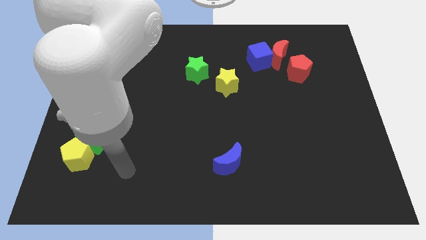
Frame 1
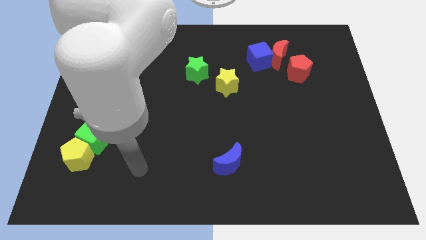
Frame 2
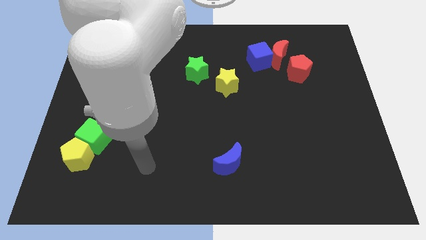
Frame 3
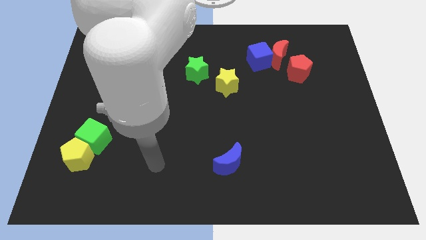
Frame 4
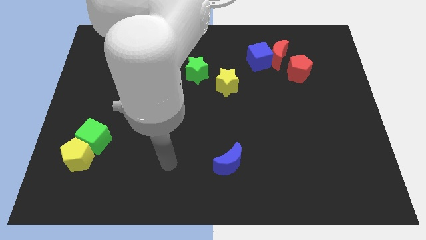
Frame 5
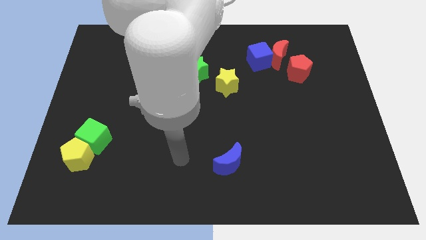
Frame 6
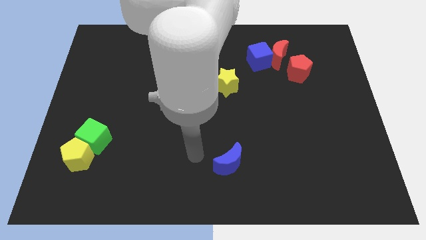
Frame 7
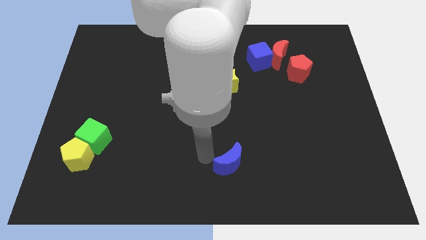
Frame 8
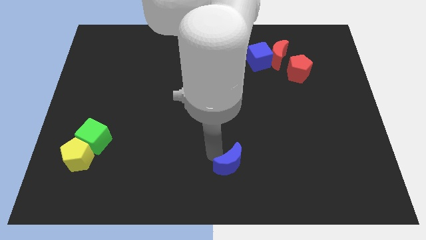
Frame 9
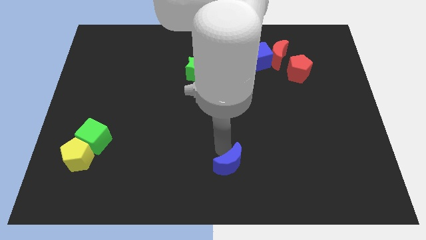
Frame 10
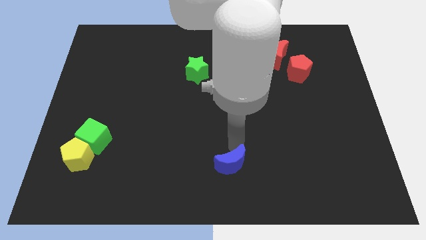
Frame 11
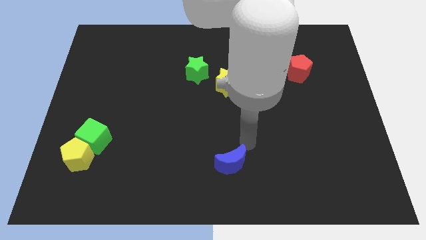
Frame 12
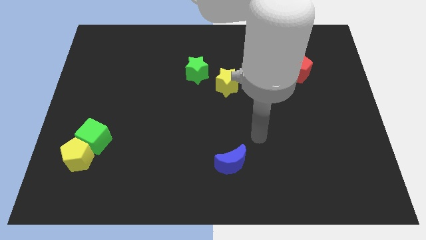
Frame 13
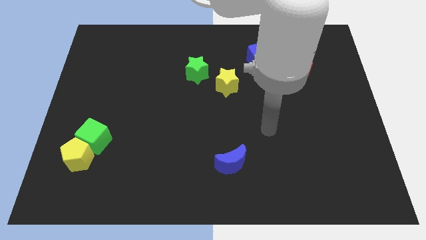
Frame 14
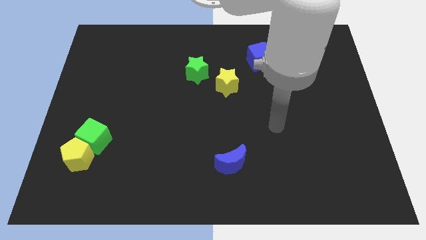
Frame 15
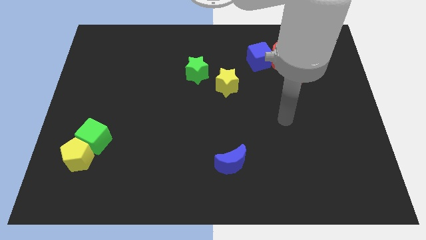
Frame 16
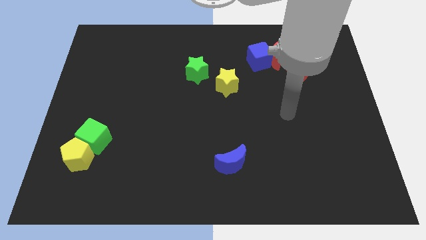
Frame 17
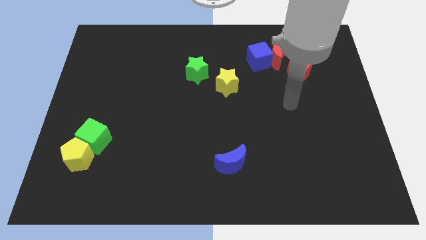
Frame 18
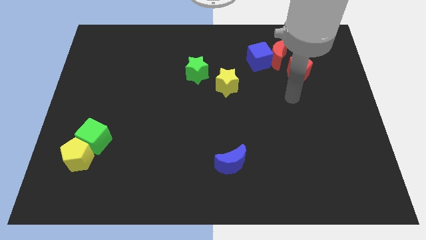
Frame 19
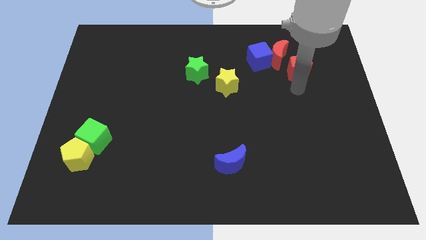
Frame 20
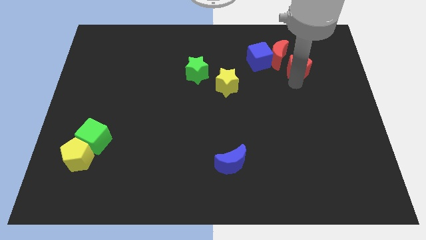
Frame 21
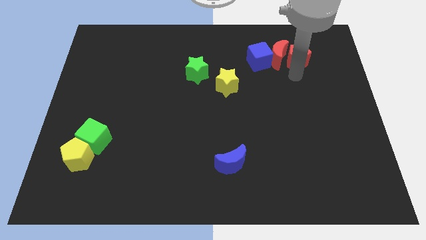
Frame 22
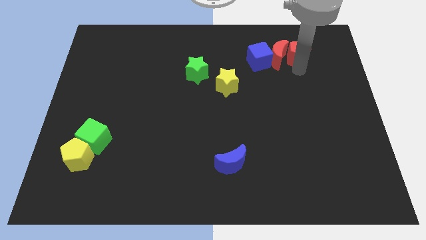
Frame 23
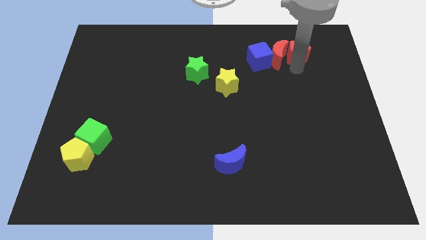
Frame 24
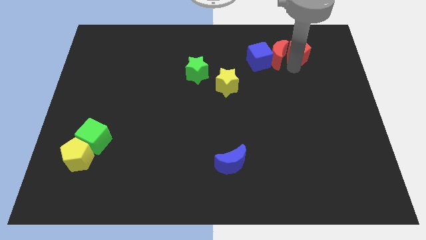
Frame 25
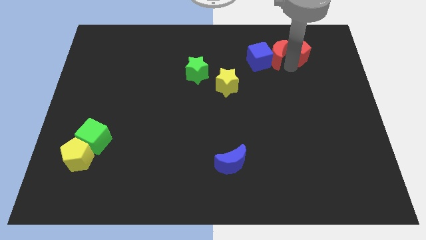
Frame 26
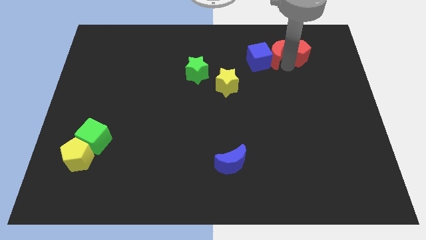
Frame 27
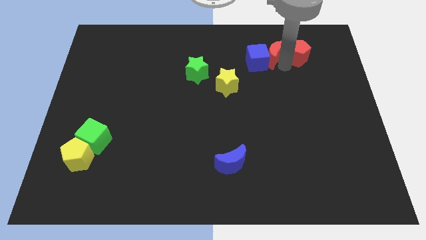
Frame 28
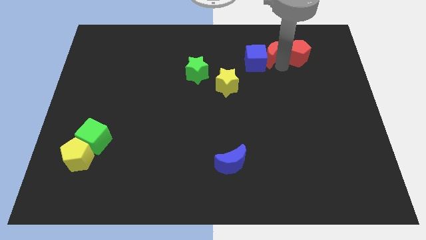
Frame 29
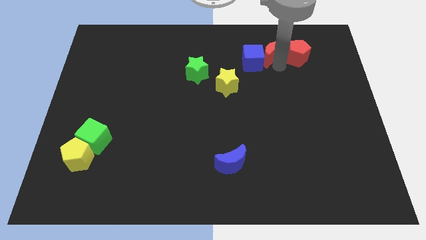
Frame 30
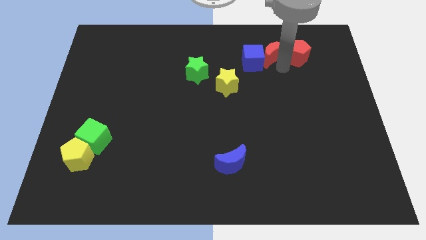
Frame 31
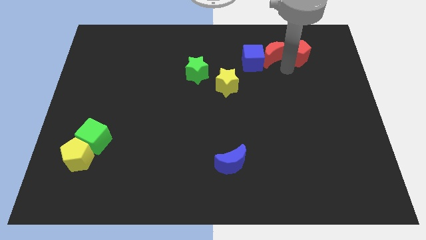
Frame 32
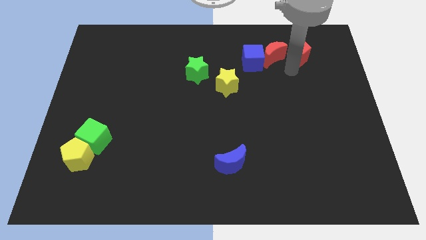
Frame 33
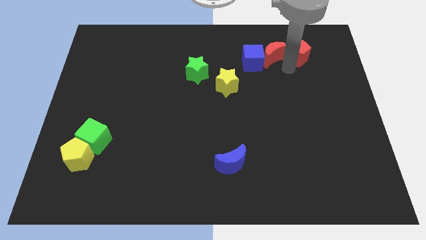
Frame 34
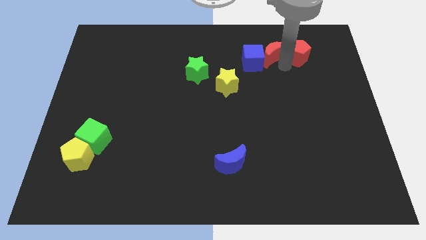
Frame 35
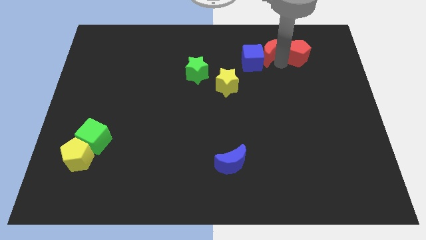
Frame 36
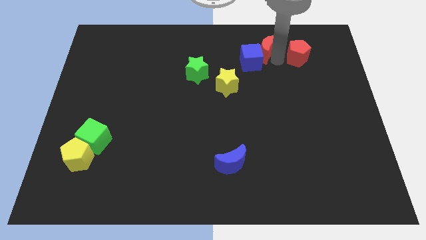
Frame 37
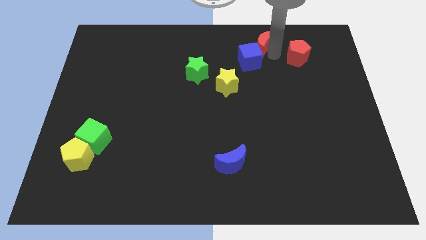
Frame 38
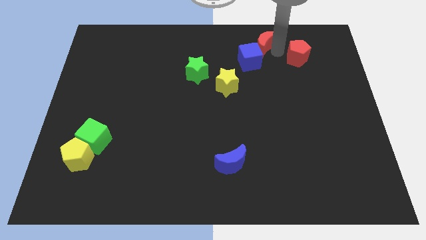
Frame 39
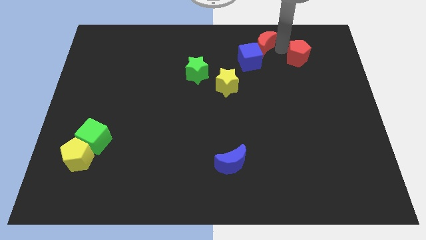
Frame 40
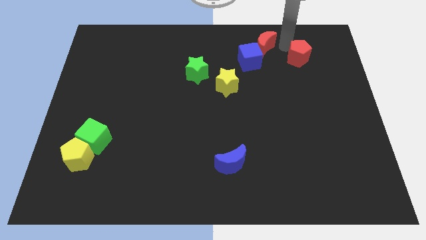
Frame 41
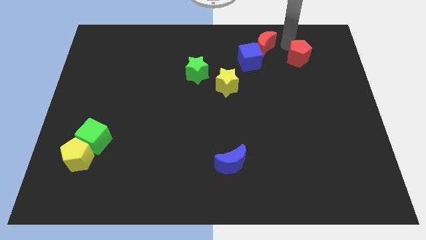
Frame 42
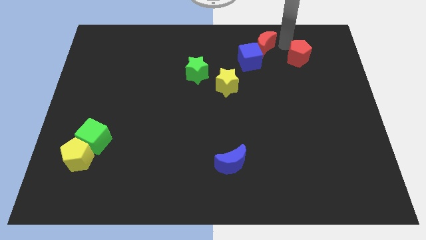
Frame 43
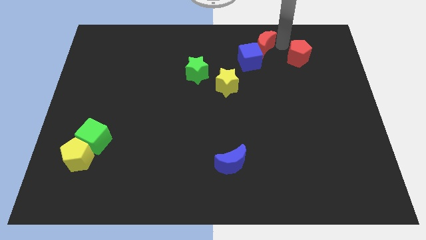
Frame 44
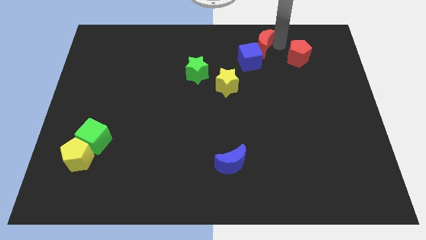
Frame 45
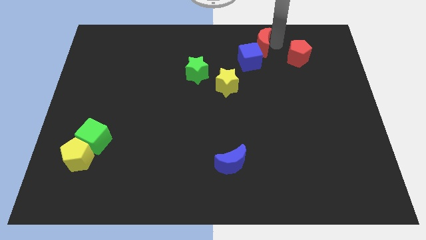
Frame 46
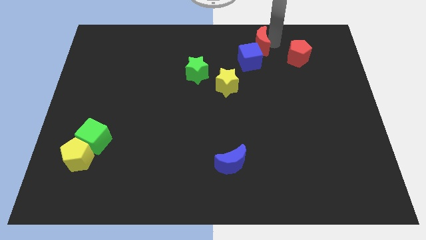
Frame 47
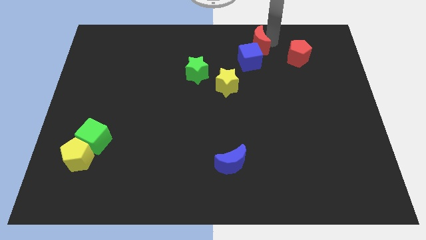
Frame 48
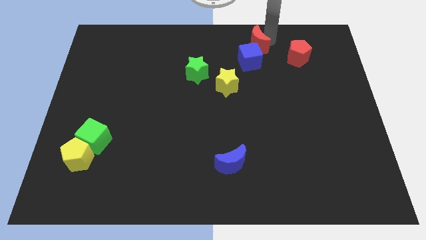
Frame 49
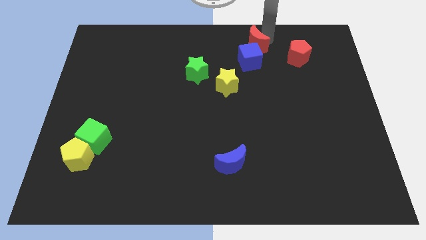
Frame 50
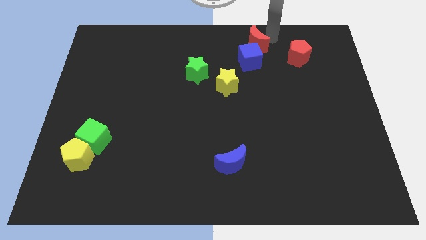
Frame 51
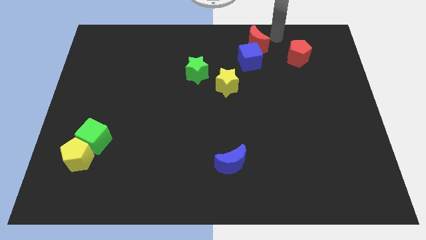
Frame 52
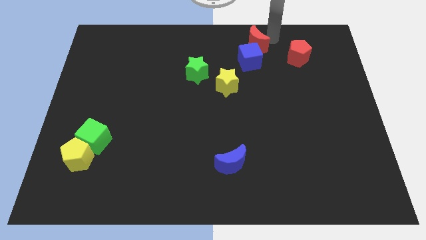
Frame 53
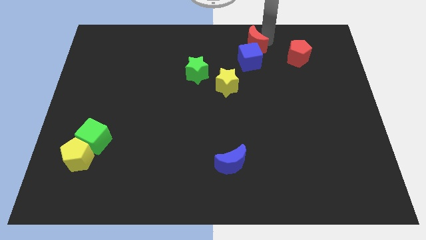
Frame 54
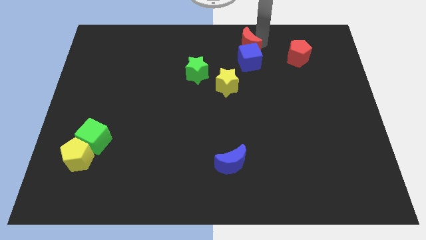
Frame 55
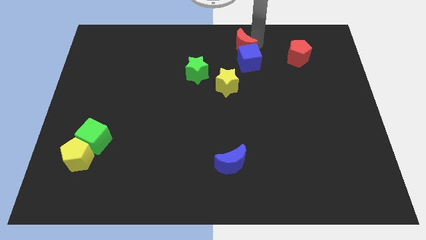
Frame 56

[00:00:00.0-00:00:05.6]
push the red moon to the left a little bit

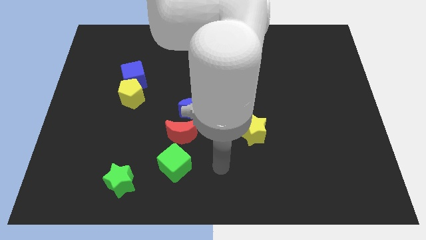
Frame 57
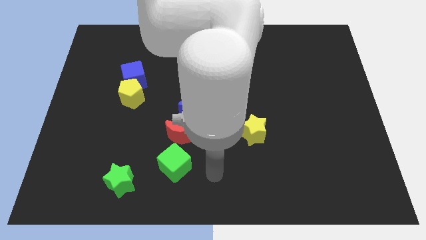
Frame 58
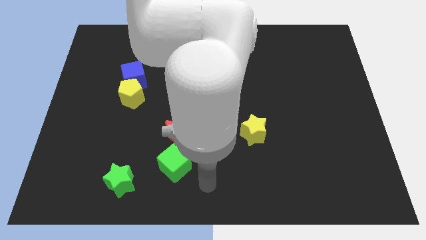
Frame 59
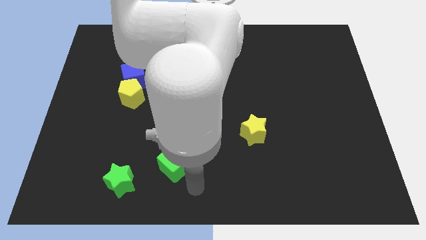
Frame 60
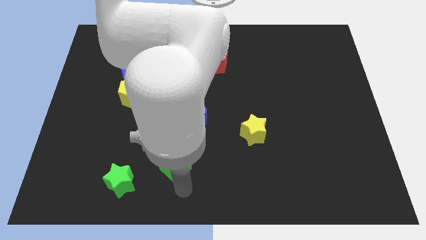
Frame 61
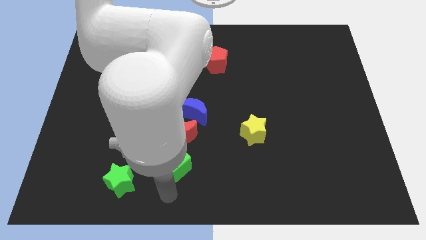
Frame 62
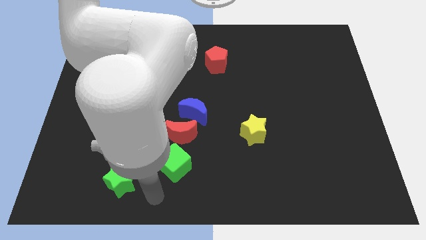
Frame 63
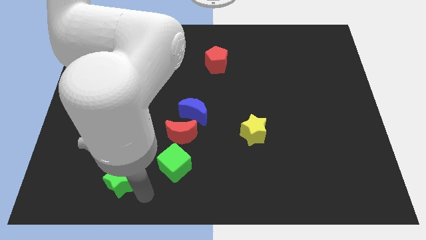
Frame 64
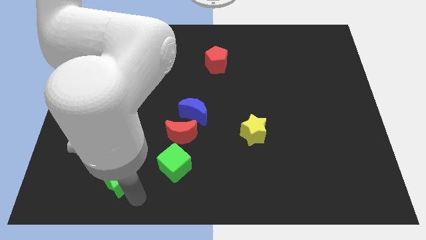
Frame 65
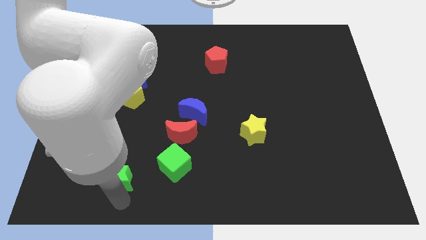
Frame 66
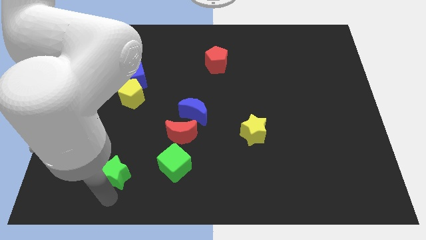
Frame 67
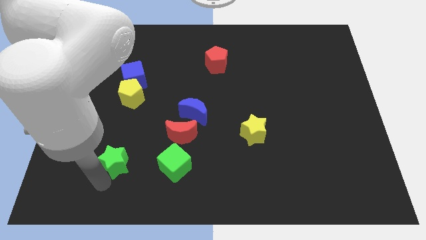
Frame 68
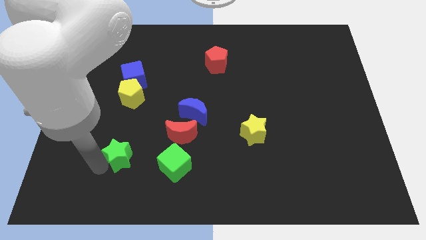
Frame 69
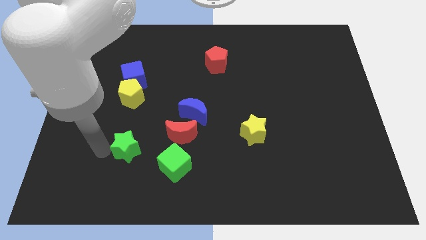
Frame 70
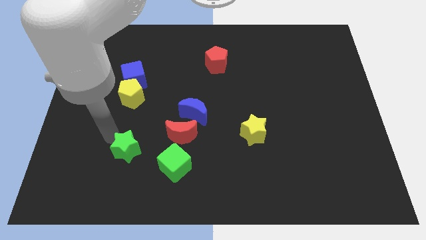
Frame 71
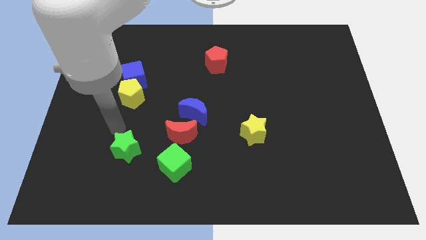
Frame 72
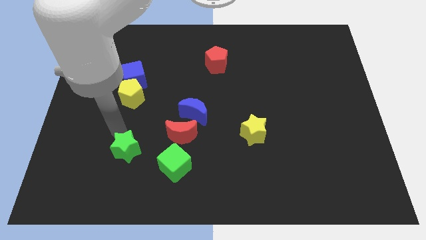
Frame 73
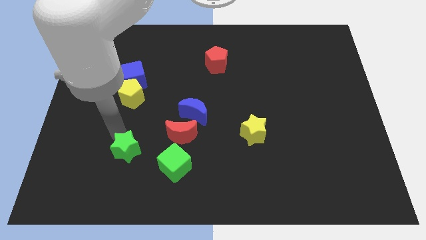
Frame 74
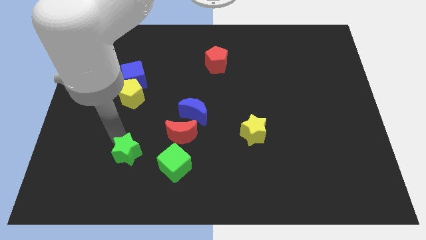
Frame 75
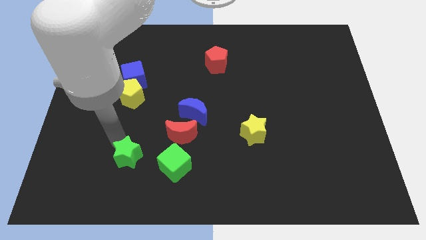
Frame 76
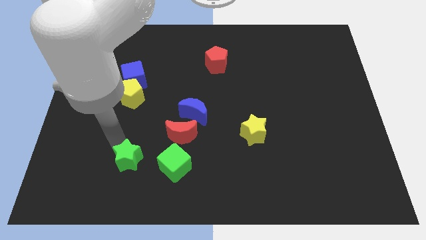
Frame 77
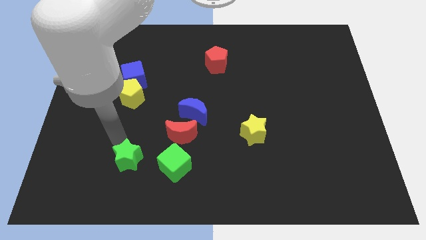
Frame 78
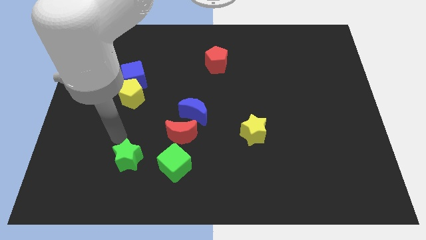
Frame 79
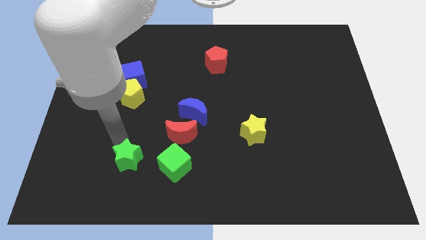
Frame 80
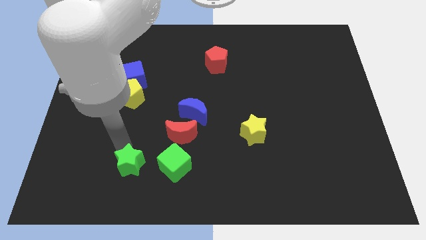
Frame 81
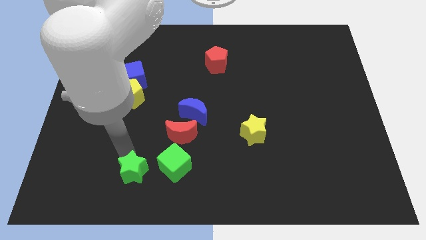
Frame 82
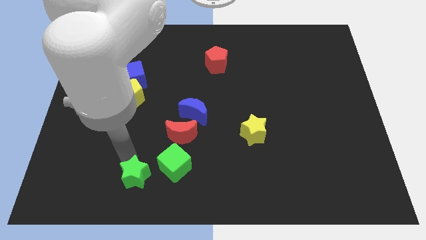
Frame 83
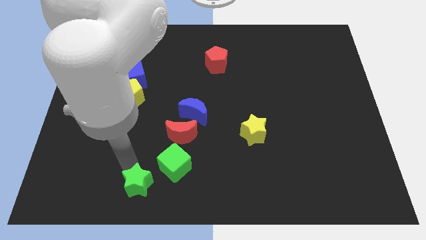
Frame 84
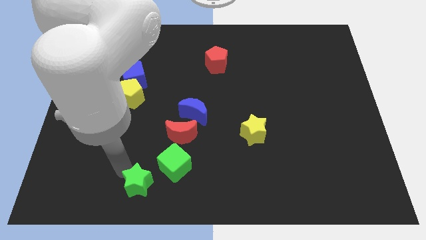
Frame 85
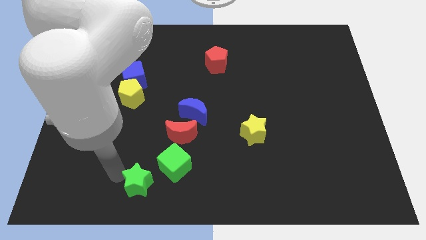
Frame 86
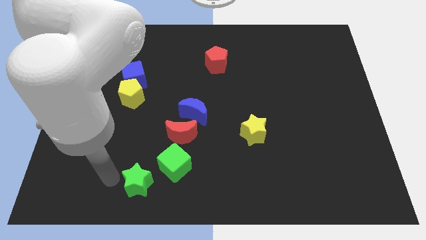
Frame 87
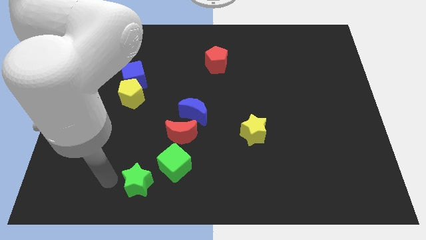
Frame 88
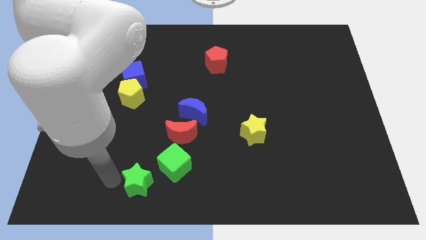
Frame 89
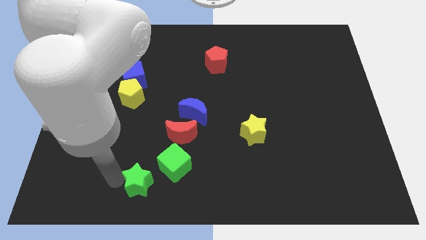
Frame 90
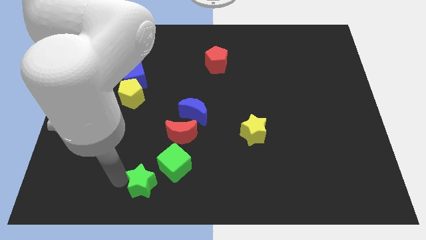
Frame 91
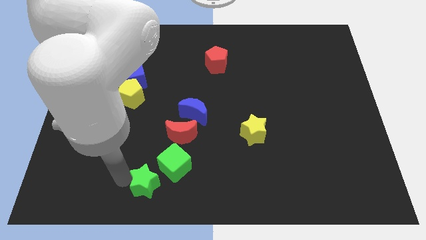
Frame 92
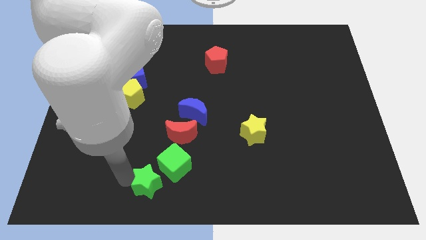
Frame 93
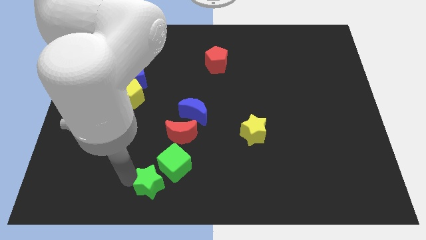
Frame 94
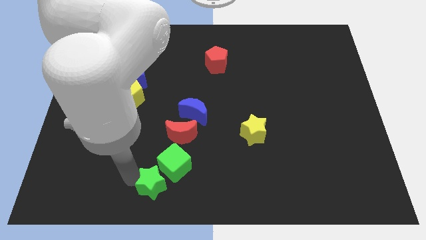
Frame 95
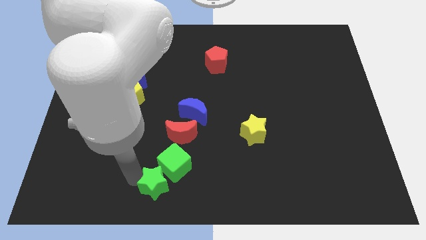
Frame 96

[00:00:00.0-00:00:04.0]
move the green star somewhat right
